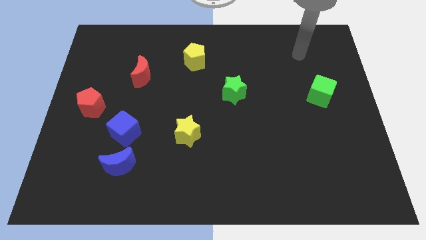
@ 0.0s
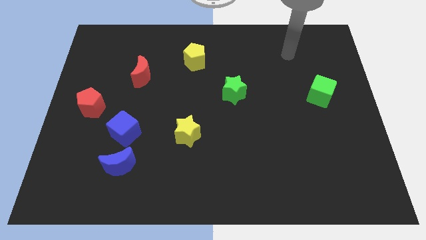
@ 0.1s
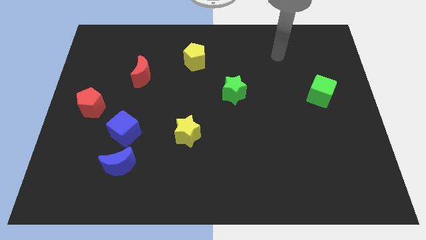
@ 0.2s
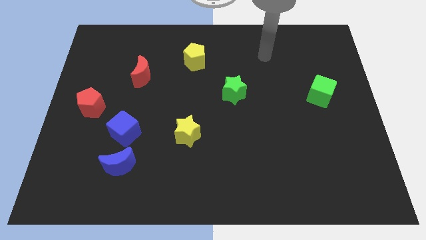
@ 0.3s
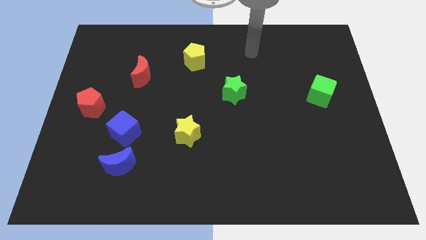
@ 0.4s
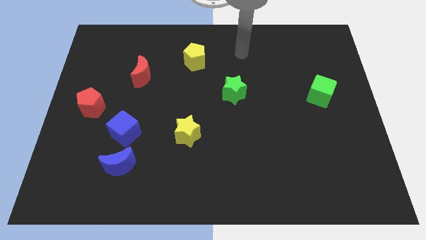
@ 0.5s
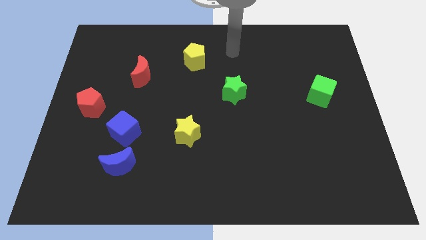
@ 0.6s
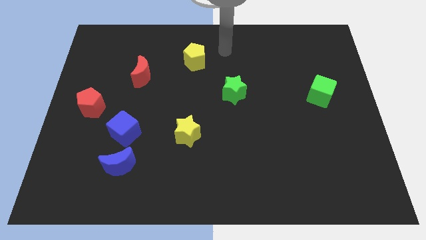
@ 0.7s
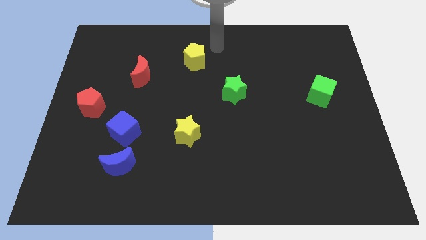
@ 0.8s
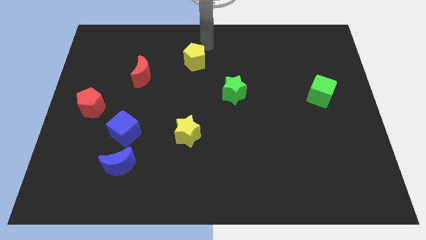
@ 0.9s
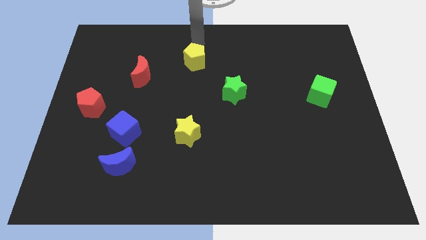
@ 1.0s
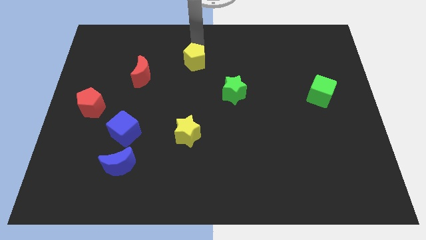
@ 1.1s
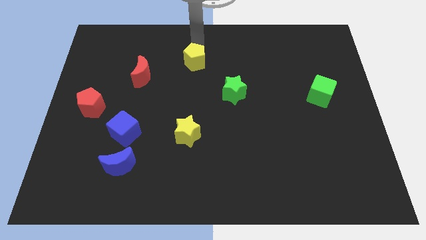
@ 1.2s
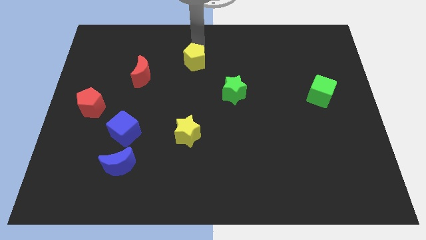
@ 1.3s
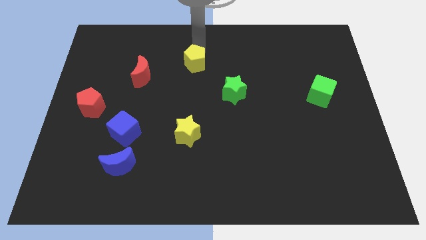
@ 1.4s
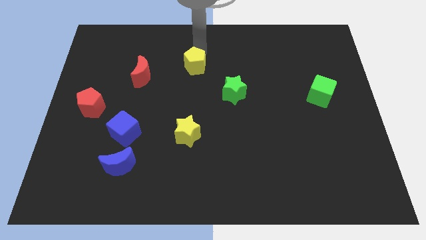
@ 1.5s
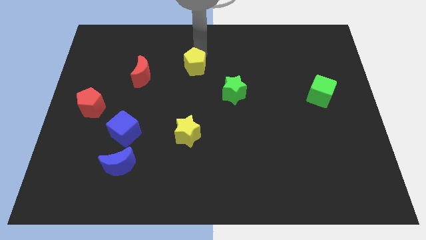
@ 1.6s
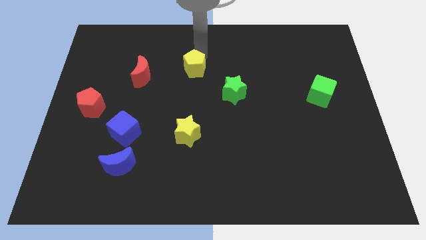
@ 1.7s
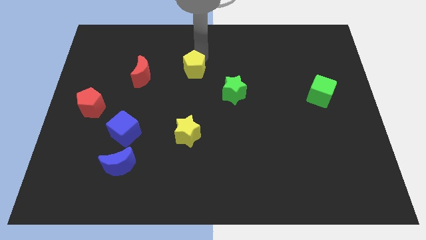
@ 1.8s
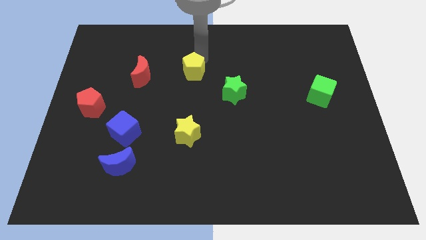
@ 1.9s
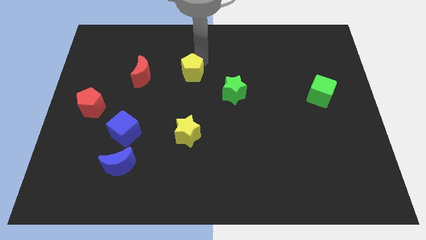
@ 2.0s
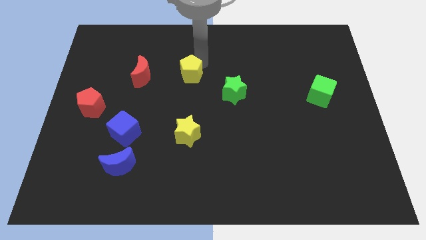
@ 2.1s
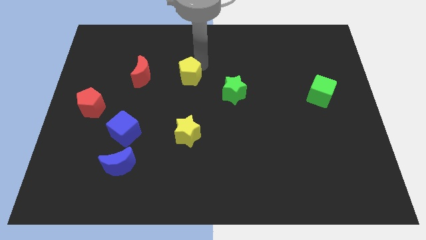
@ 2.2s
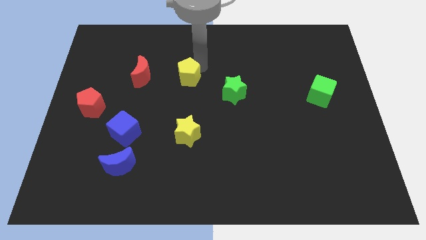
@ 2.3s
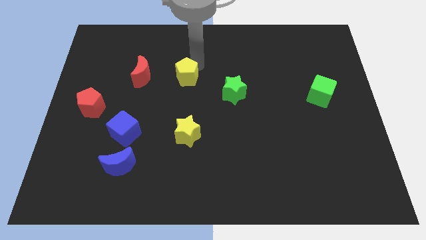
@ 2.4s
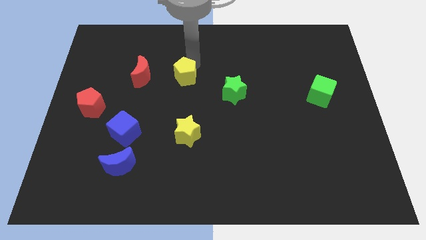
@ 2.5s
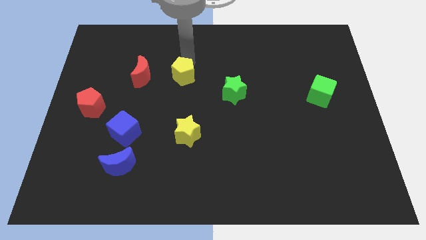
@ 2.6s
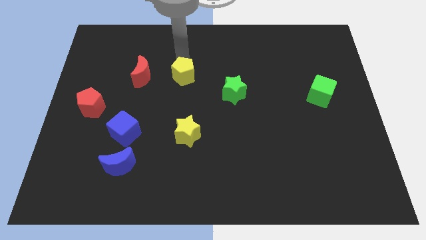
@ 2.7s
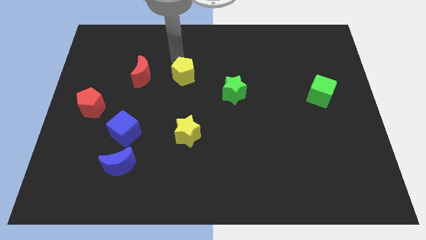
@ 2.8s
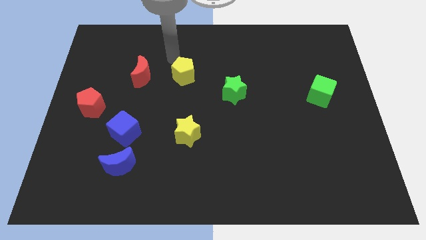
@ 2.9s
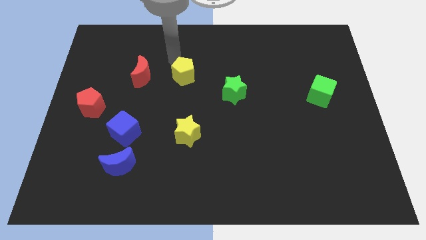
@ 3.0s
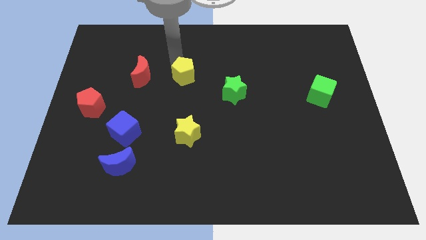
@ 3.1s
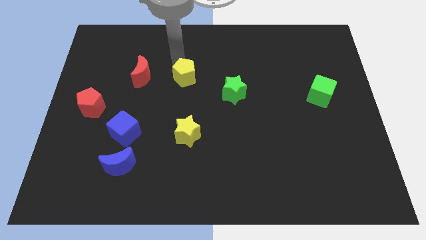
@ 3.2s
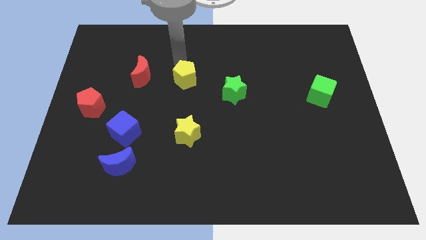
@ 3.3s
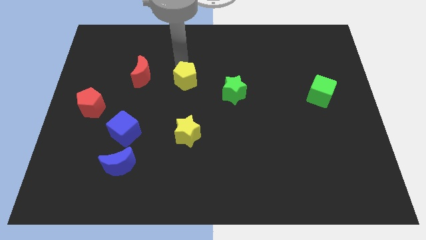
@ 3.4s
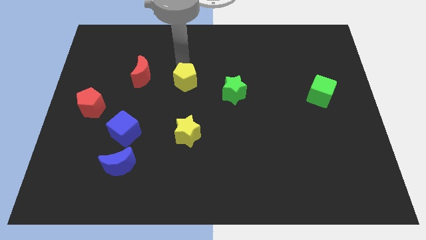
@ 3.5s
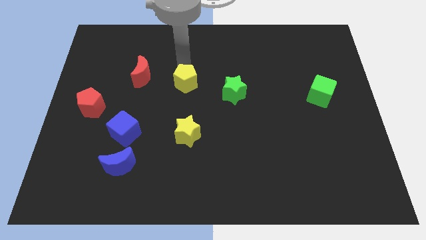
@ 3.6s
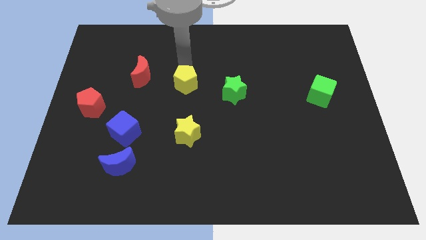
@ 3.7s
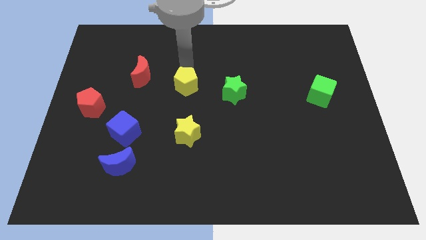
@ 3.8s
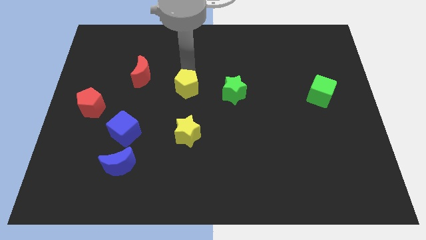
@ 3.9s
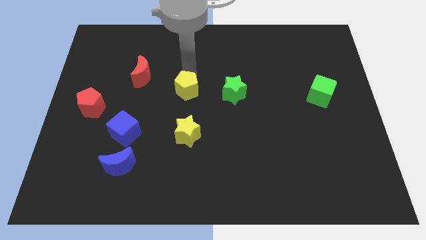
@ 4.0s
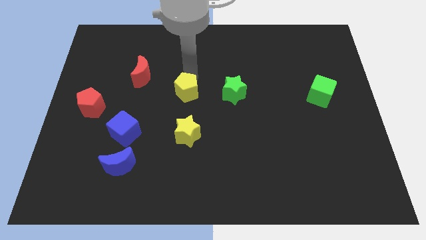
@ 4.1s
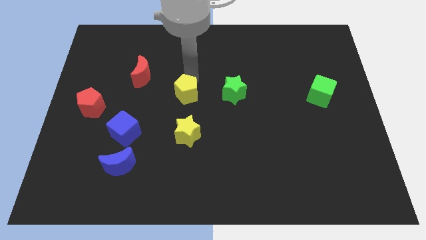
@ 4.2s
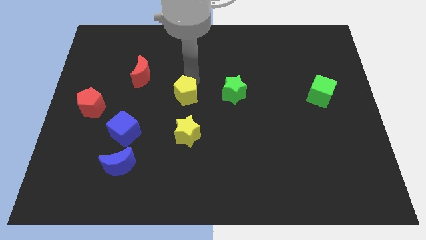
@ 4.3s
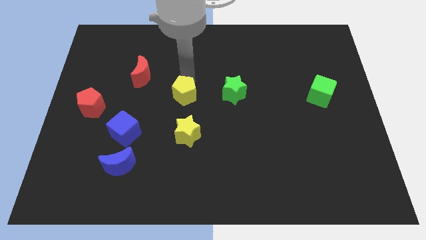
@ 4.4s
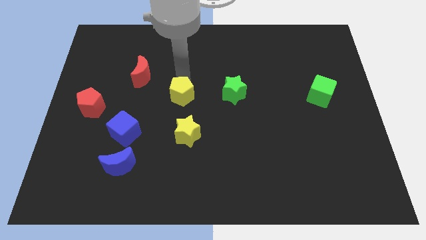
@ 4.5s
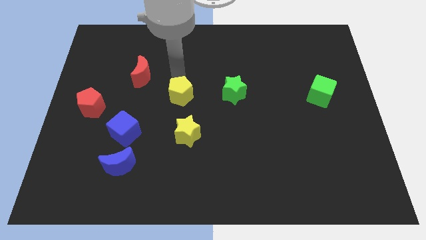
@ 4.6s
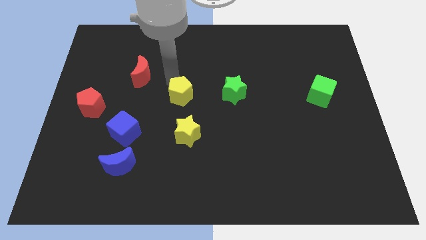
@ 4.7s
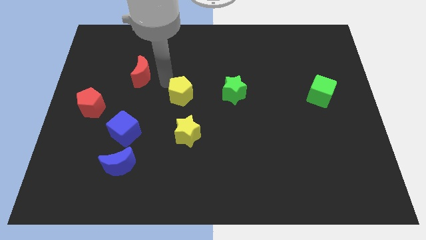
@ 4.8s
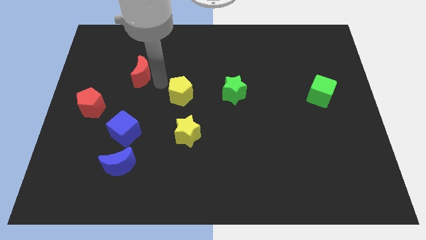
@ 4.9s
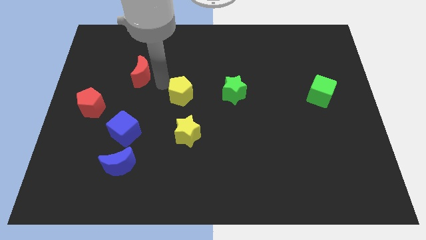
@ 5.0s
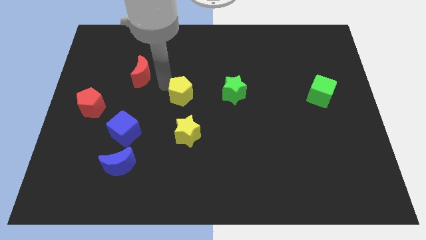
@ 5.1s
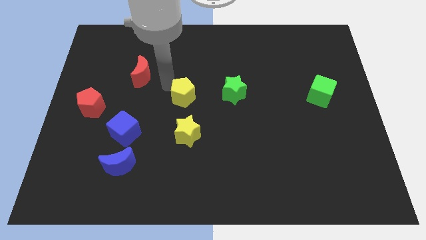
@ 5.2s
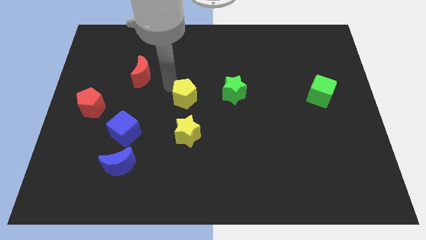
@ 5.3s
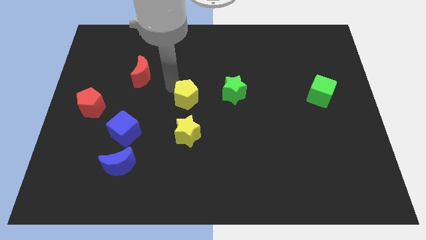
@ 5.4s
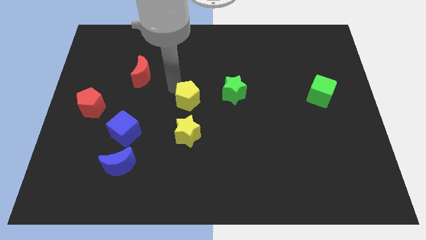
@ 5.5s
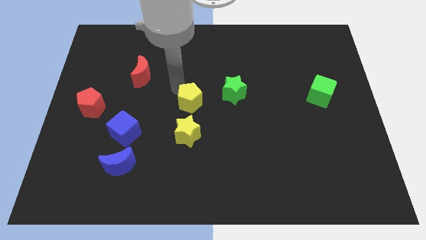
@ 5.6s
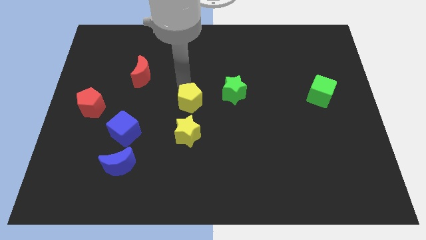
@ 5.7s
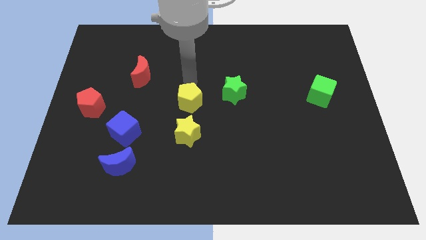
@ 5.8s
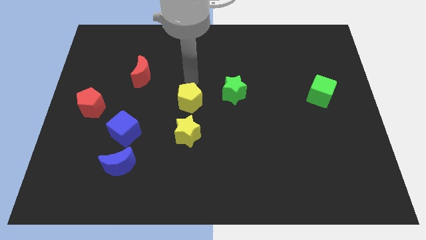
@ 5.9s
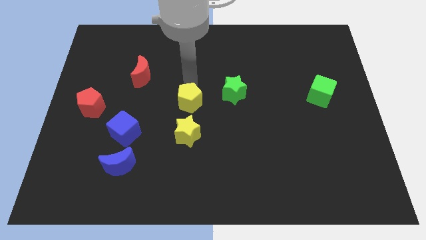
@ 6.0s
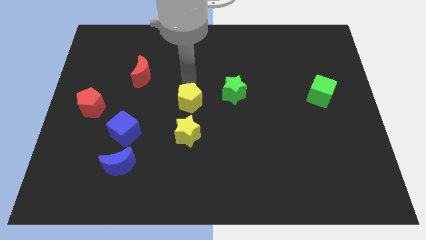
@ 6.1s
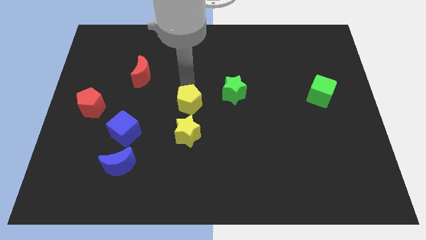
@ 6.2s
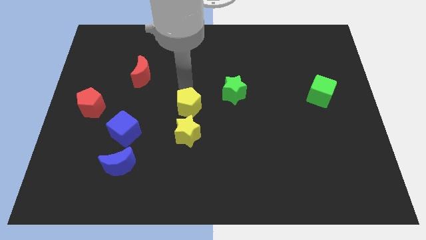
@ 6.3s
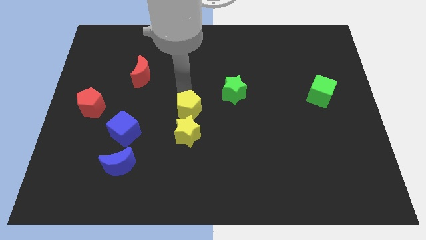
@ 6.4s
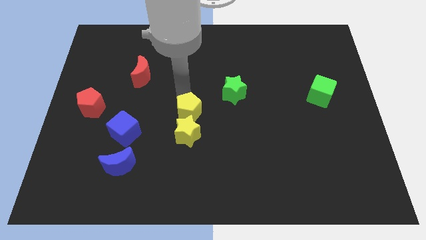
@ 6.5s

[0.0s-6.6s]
push the yellow pentagon to the yellow star

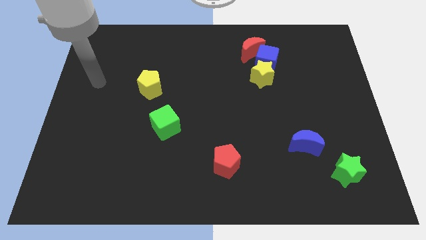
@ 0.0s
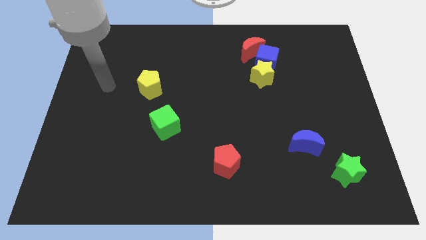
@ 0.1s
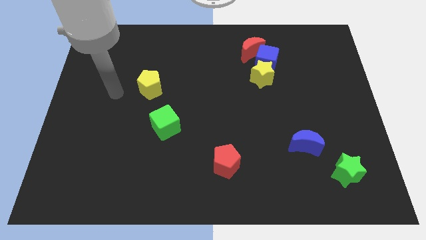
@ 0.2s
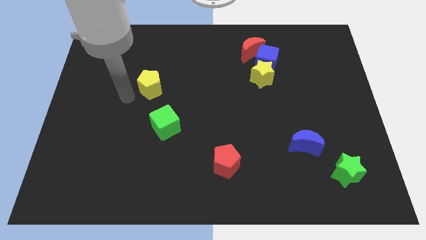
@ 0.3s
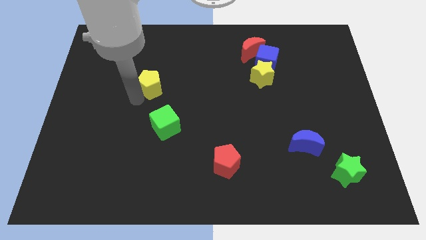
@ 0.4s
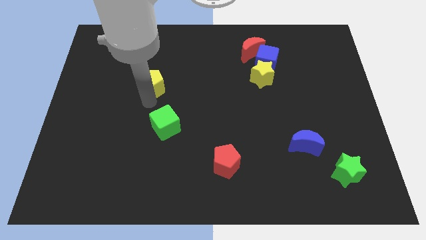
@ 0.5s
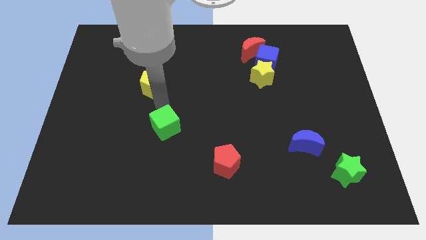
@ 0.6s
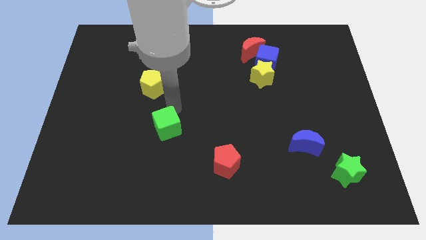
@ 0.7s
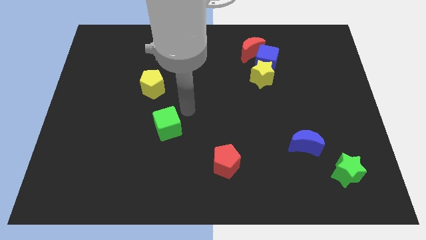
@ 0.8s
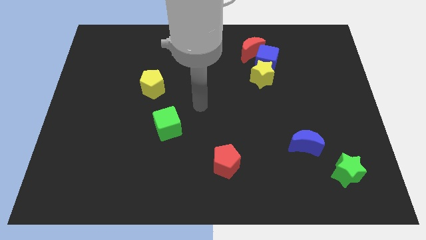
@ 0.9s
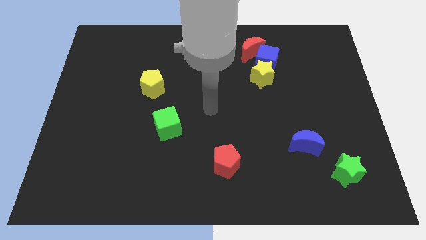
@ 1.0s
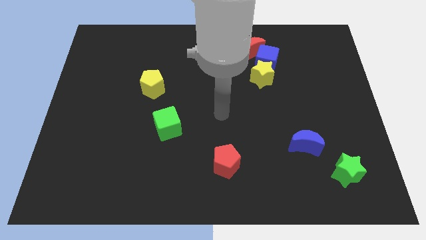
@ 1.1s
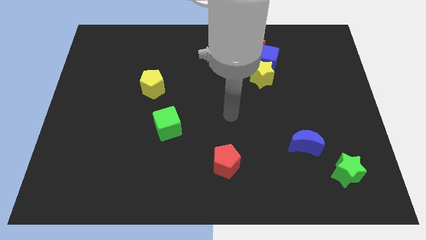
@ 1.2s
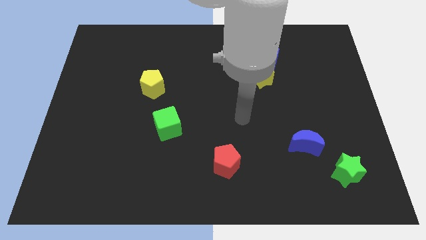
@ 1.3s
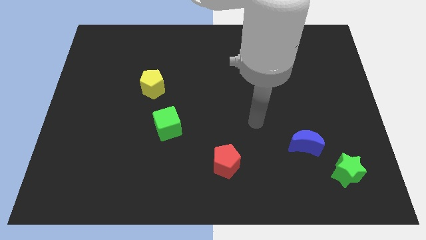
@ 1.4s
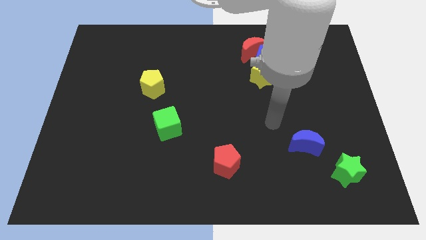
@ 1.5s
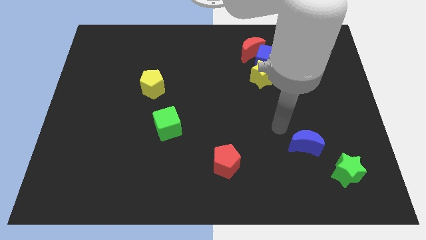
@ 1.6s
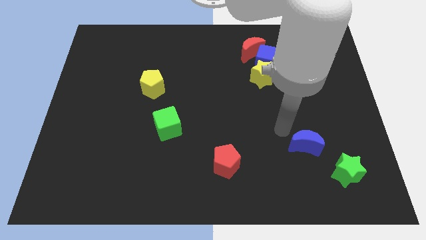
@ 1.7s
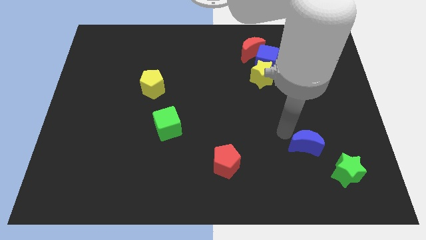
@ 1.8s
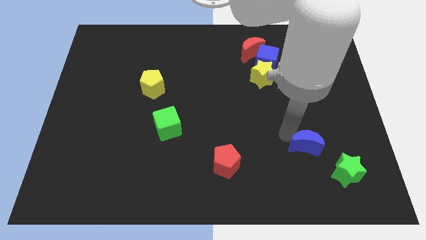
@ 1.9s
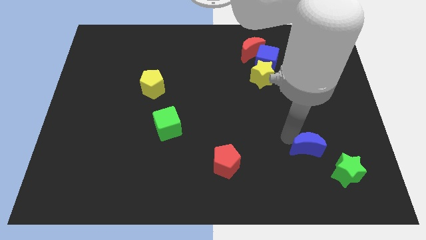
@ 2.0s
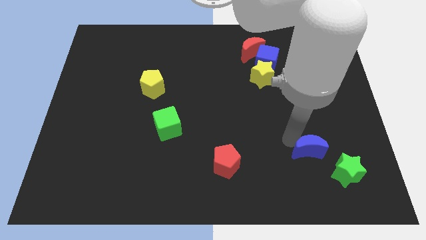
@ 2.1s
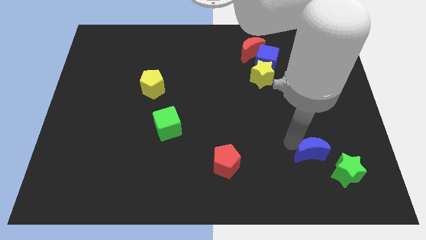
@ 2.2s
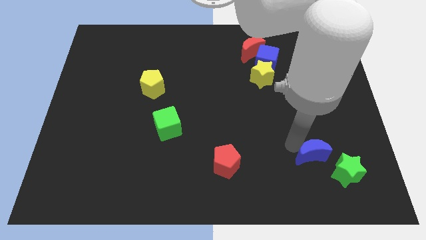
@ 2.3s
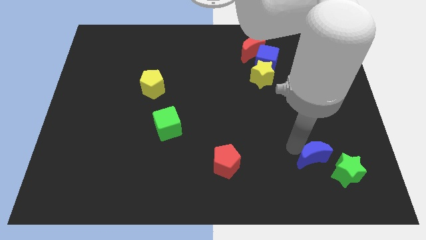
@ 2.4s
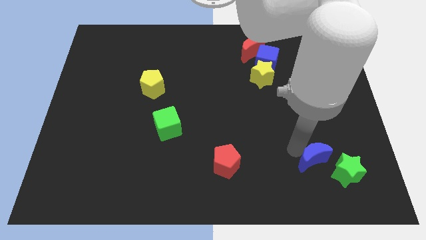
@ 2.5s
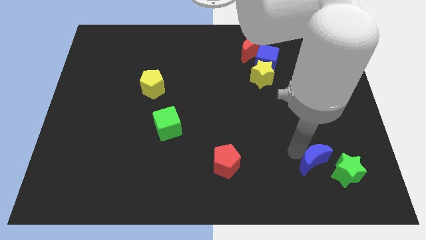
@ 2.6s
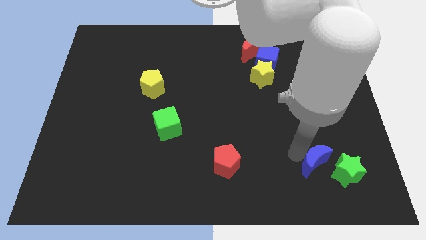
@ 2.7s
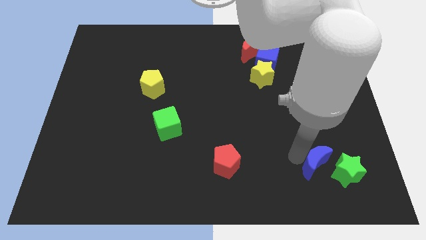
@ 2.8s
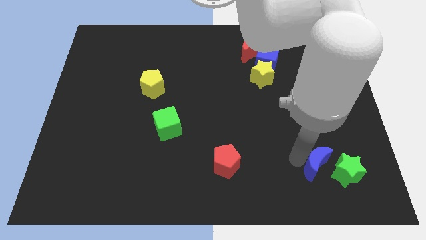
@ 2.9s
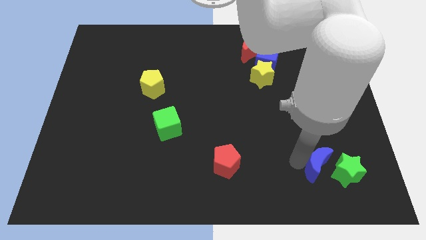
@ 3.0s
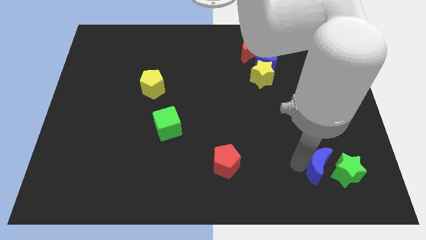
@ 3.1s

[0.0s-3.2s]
push the blue moon towards the green star
